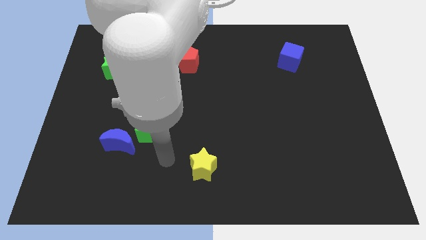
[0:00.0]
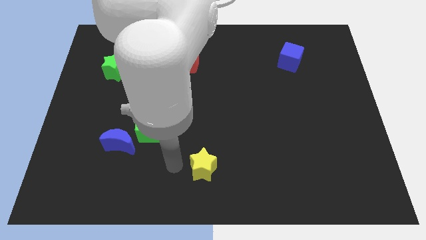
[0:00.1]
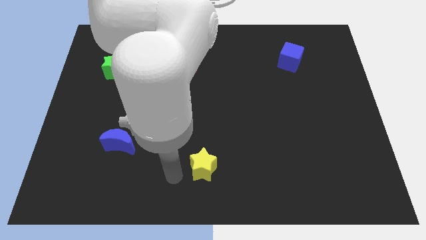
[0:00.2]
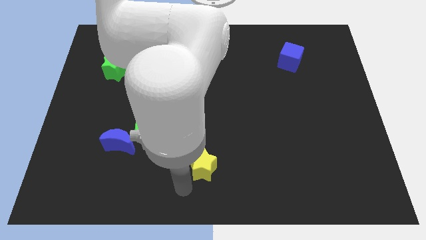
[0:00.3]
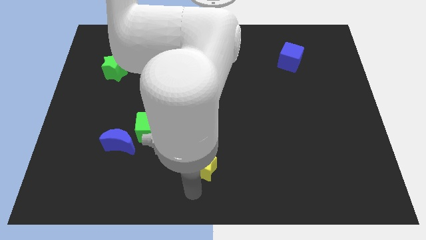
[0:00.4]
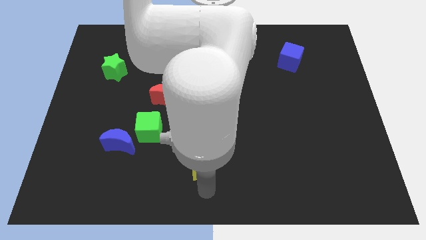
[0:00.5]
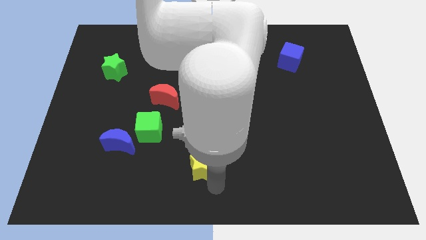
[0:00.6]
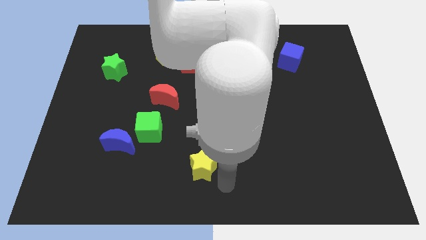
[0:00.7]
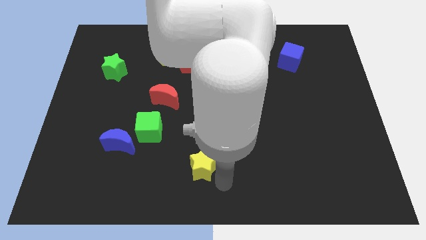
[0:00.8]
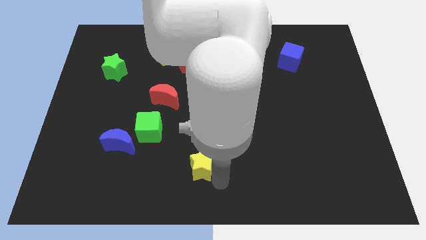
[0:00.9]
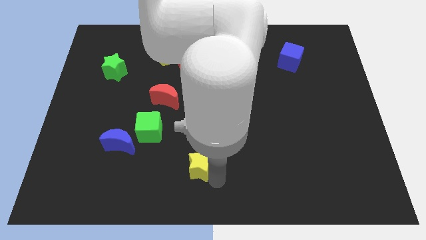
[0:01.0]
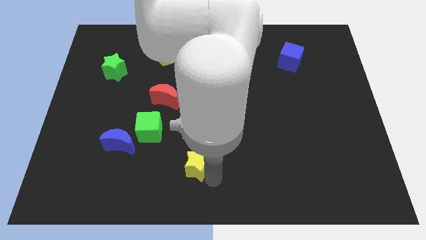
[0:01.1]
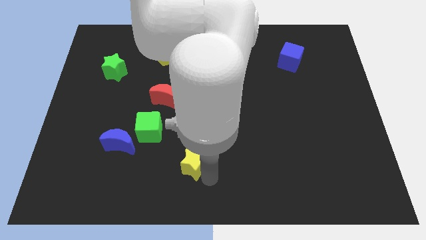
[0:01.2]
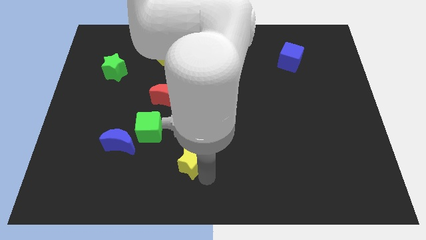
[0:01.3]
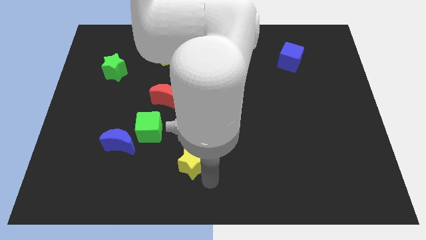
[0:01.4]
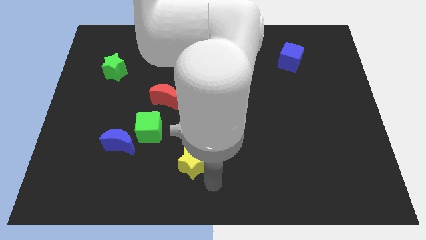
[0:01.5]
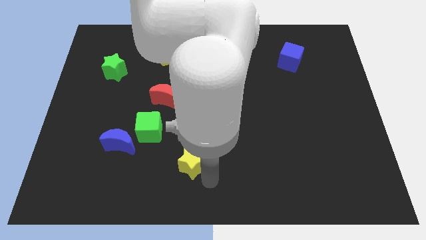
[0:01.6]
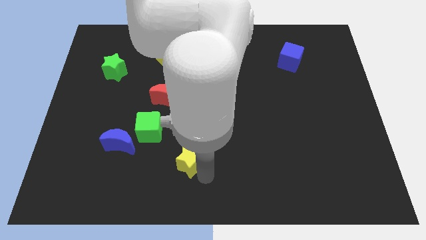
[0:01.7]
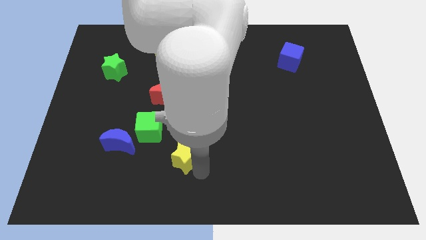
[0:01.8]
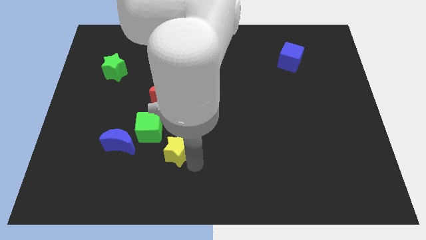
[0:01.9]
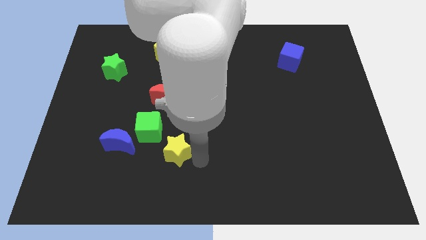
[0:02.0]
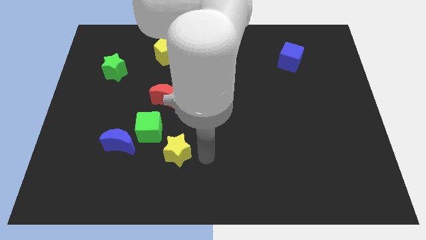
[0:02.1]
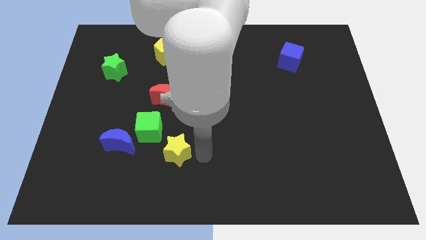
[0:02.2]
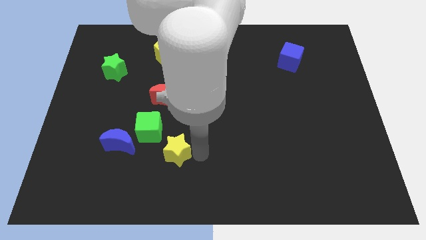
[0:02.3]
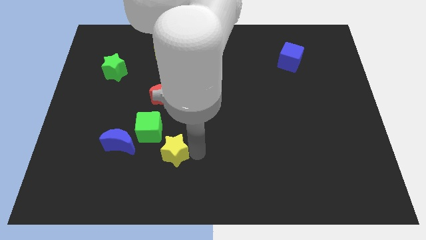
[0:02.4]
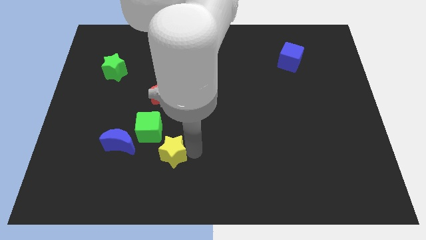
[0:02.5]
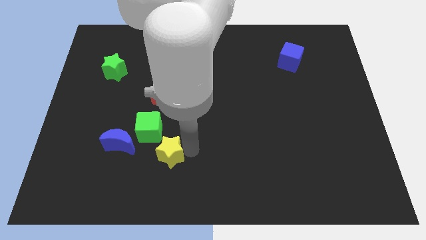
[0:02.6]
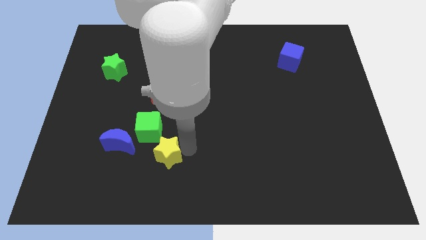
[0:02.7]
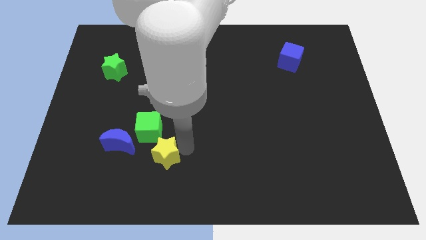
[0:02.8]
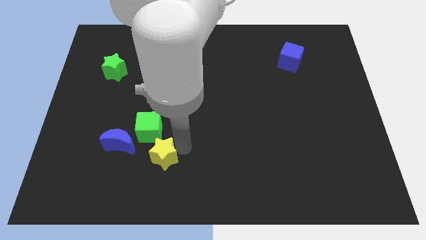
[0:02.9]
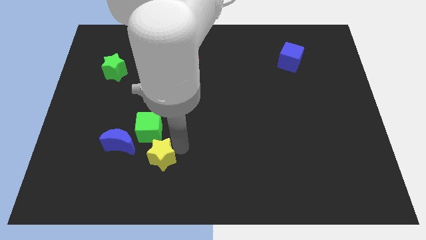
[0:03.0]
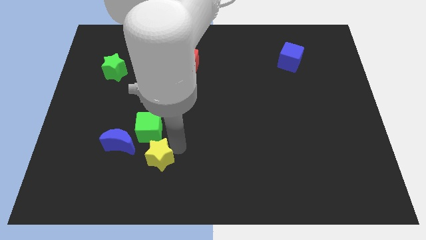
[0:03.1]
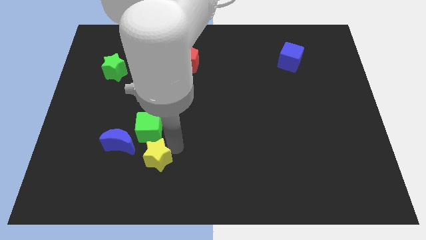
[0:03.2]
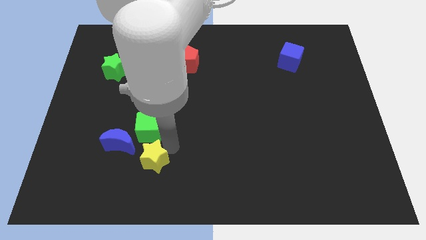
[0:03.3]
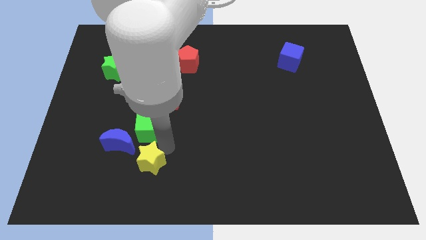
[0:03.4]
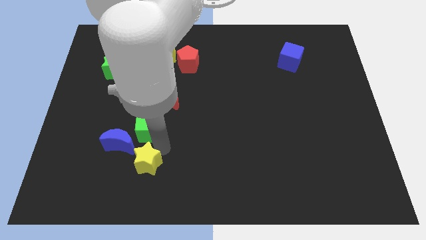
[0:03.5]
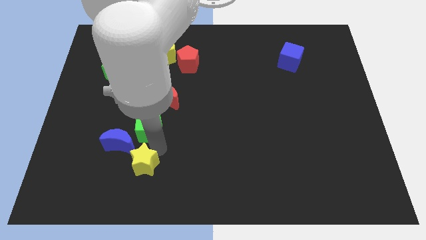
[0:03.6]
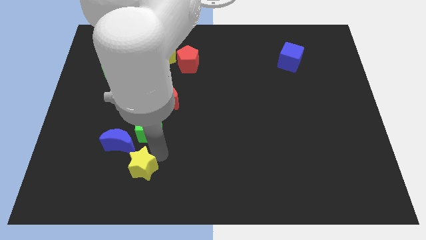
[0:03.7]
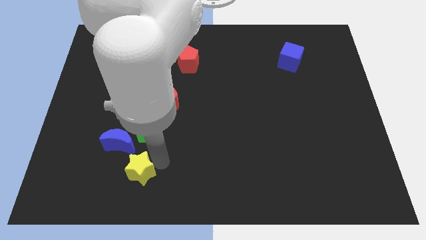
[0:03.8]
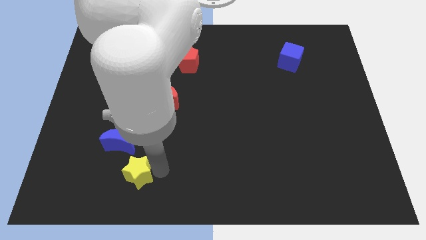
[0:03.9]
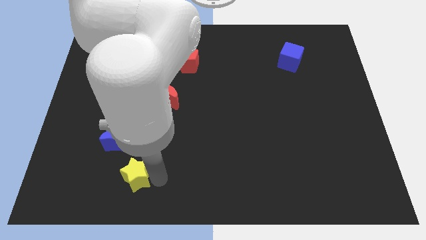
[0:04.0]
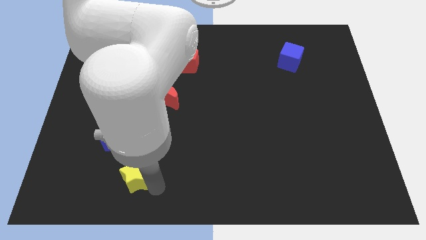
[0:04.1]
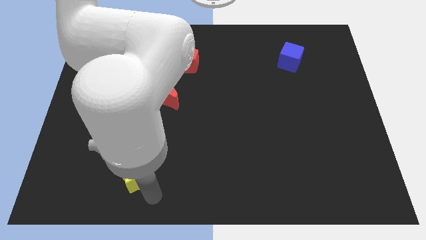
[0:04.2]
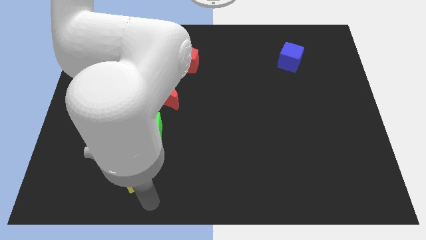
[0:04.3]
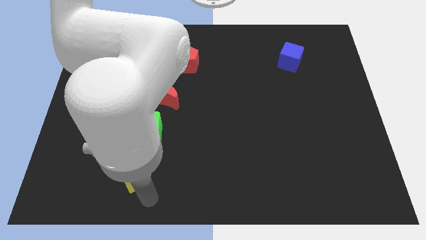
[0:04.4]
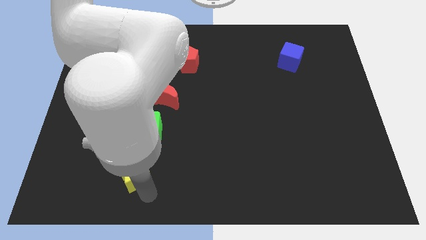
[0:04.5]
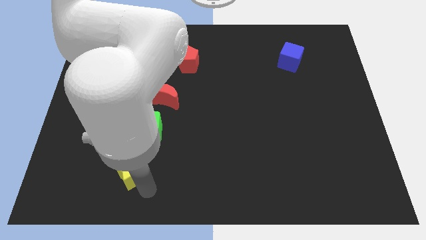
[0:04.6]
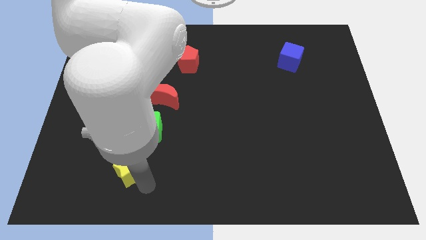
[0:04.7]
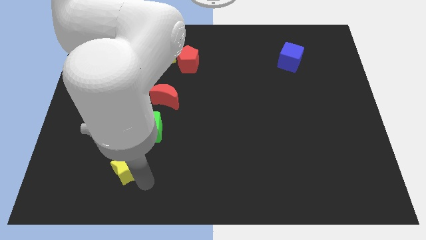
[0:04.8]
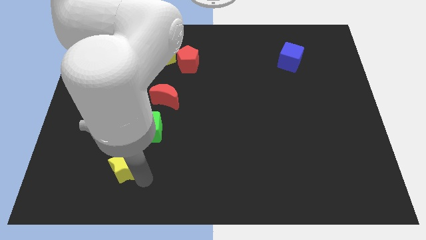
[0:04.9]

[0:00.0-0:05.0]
move the yellow star to the blue moon

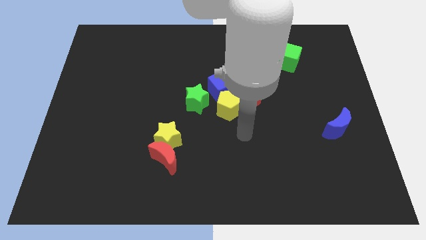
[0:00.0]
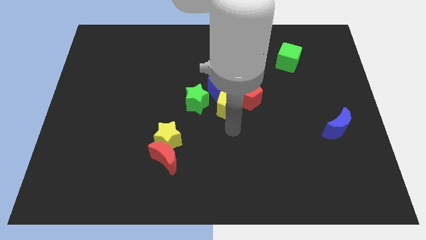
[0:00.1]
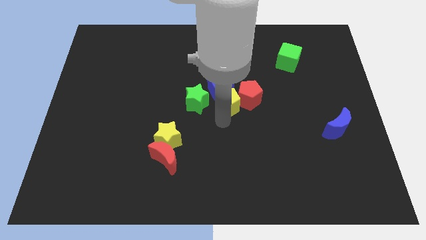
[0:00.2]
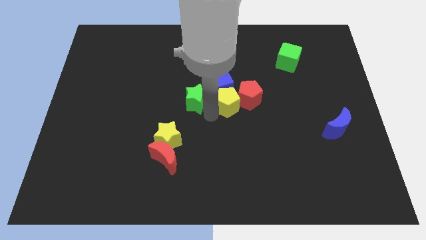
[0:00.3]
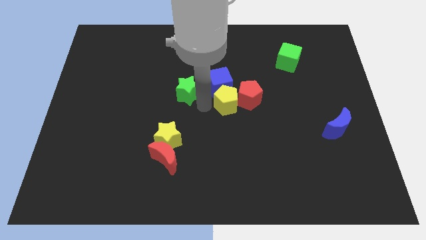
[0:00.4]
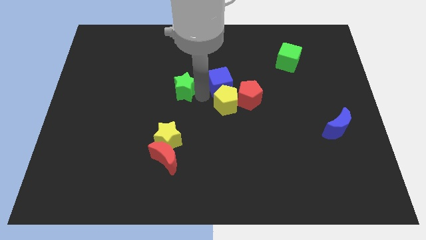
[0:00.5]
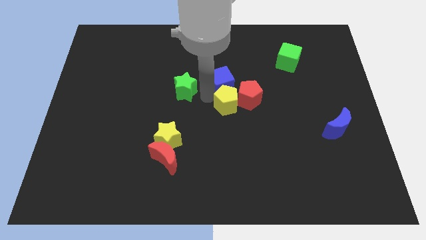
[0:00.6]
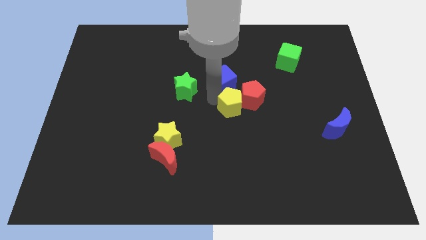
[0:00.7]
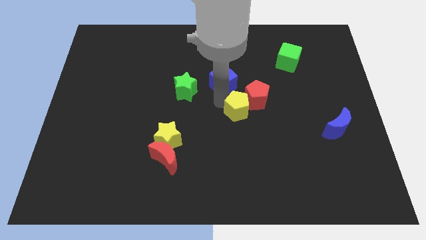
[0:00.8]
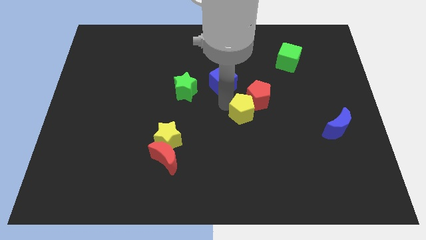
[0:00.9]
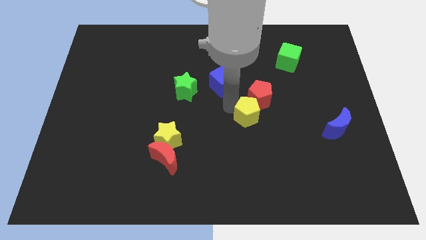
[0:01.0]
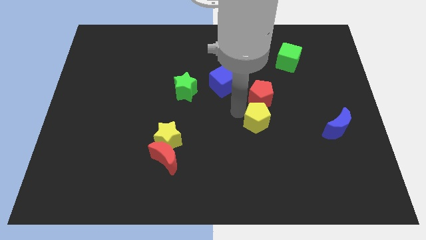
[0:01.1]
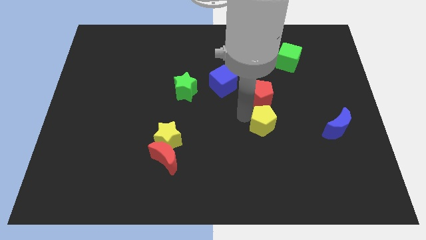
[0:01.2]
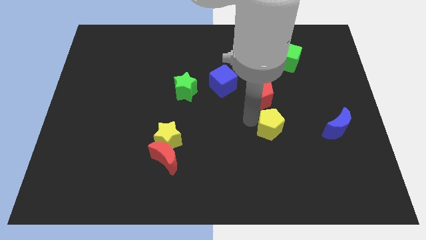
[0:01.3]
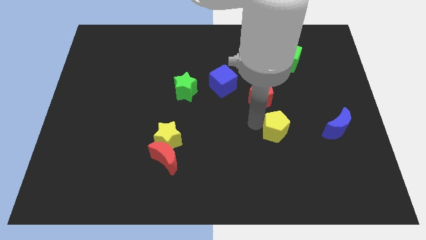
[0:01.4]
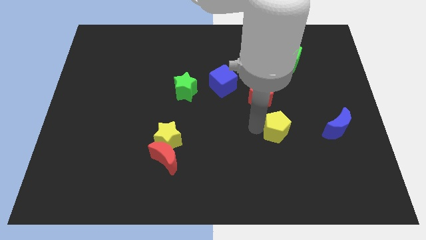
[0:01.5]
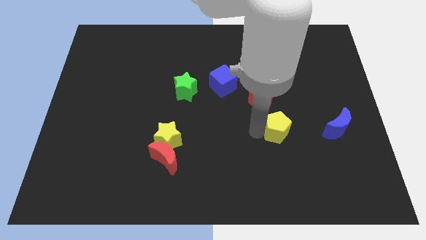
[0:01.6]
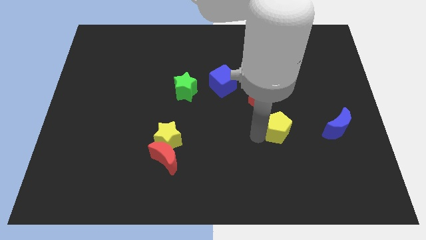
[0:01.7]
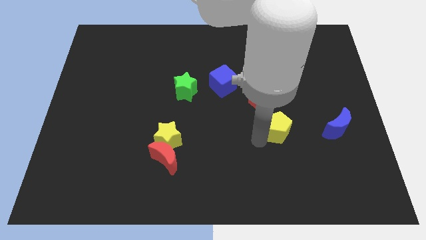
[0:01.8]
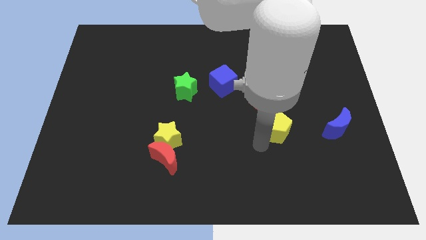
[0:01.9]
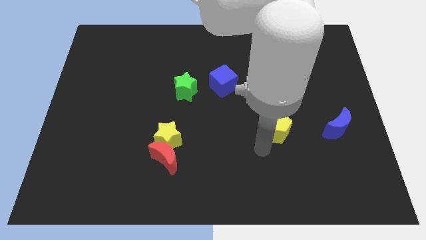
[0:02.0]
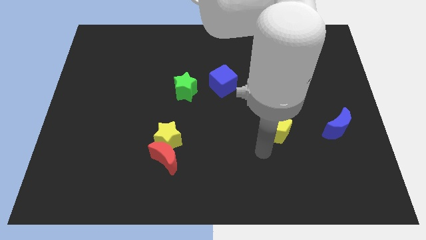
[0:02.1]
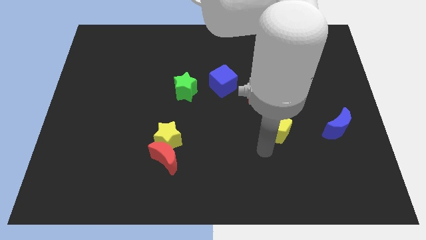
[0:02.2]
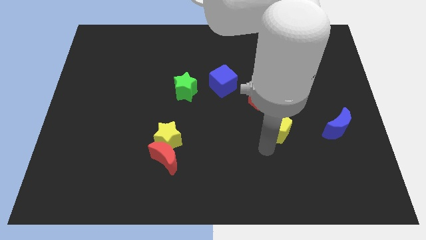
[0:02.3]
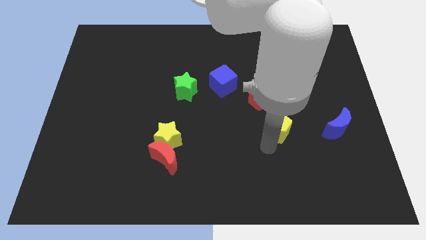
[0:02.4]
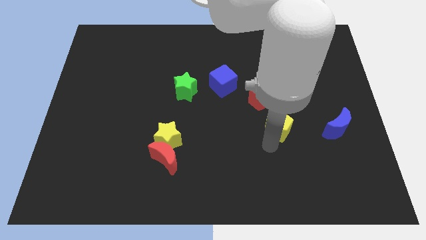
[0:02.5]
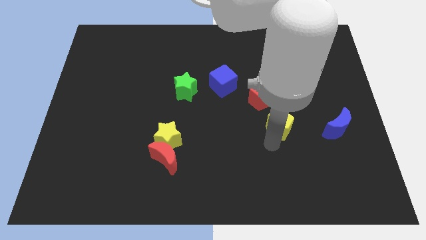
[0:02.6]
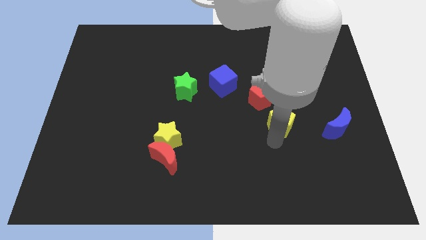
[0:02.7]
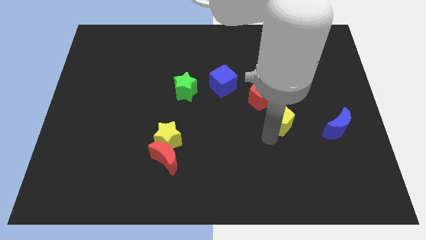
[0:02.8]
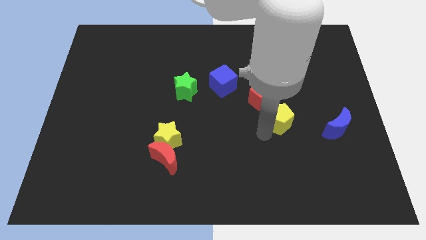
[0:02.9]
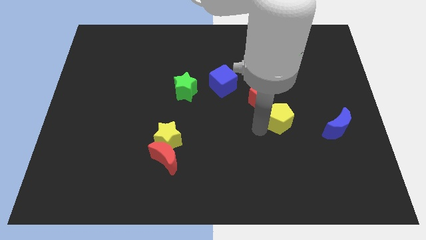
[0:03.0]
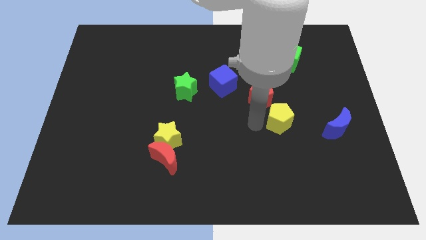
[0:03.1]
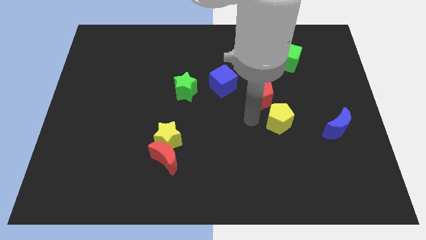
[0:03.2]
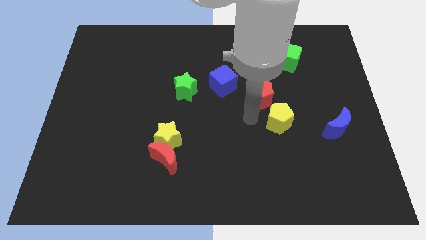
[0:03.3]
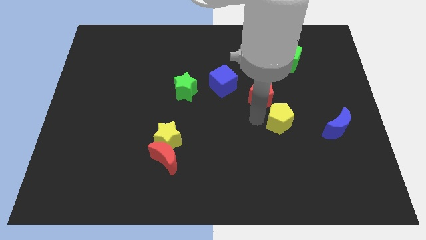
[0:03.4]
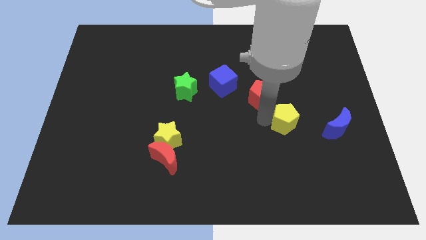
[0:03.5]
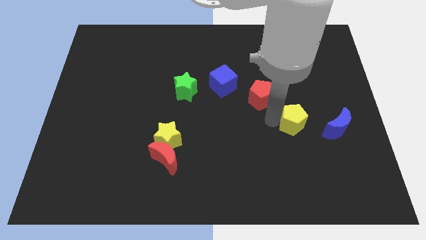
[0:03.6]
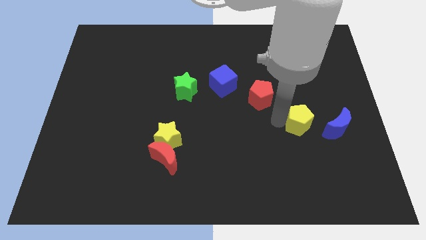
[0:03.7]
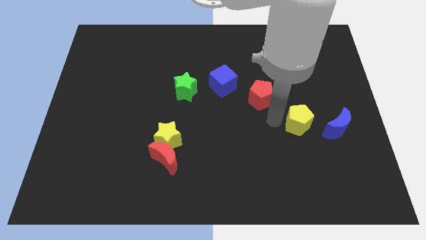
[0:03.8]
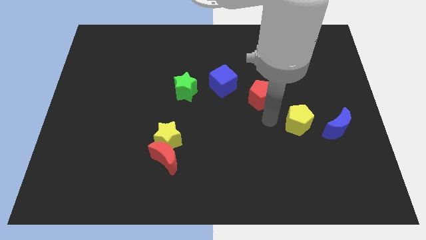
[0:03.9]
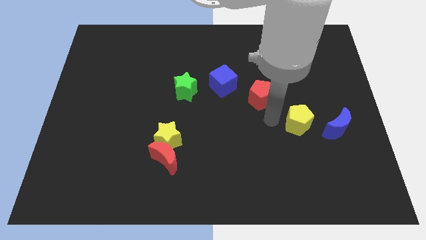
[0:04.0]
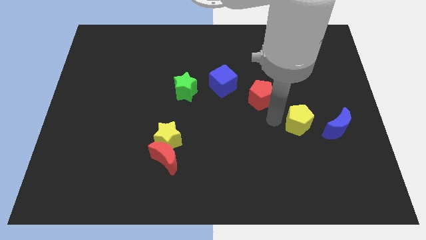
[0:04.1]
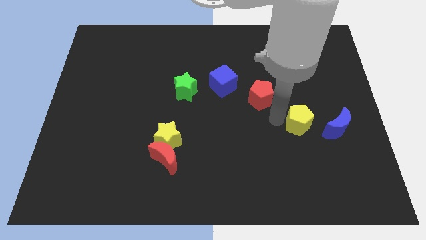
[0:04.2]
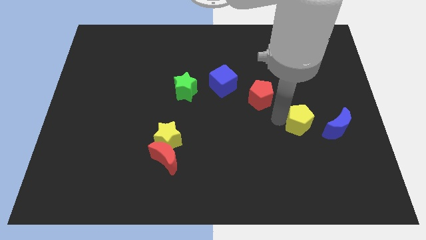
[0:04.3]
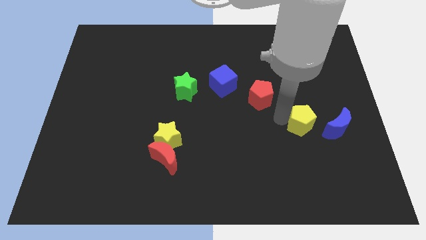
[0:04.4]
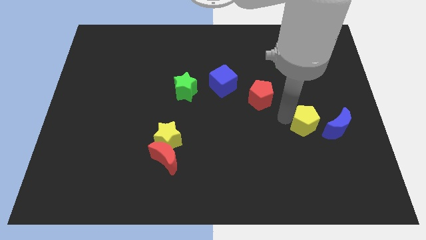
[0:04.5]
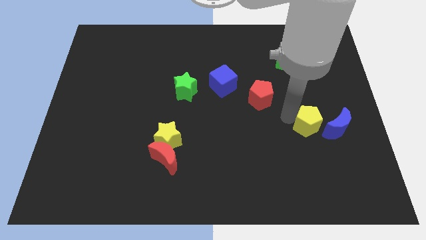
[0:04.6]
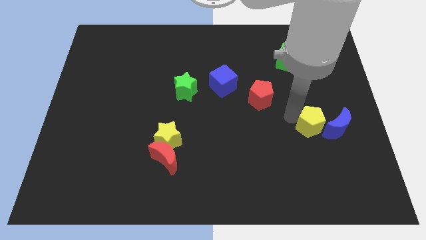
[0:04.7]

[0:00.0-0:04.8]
slide the yellow pentagon next to the blue moon
